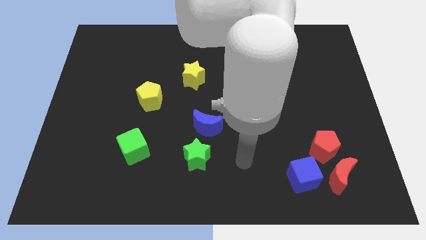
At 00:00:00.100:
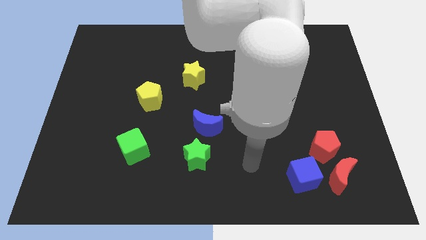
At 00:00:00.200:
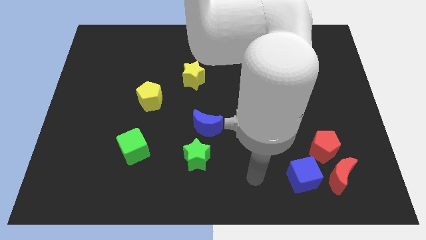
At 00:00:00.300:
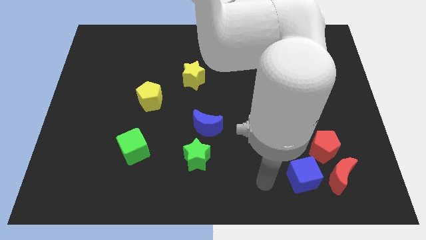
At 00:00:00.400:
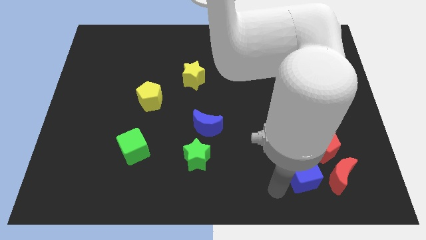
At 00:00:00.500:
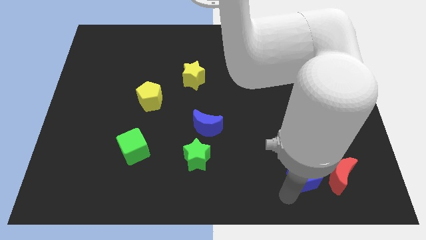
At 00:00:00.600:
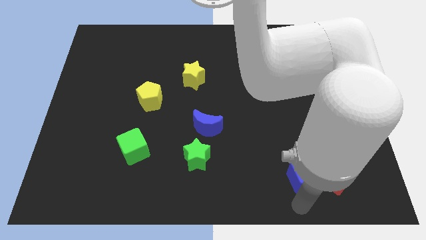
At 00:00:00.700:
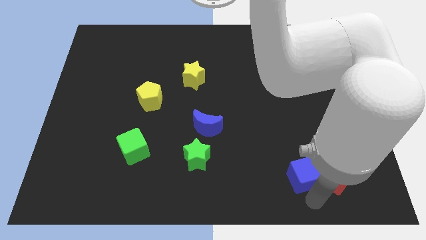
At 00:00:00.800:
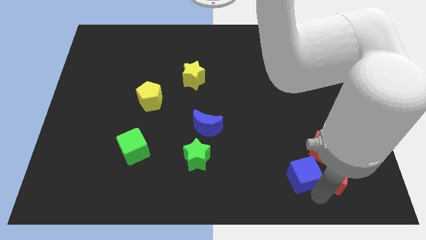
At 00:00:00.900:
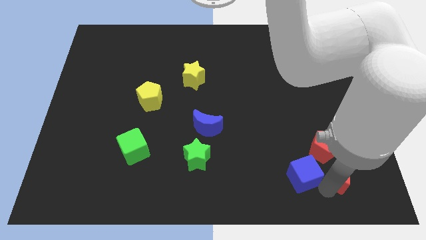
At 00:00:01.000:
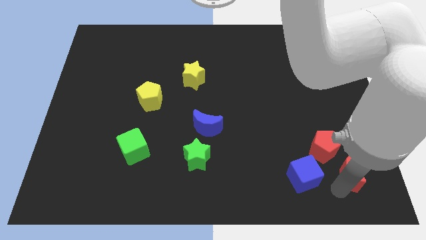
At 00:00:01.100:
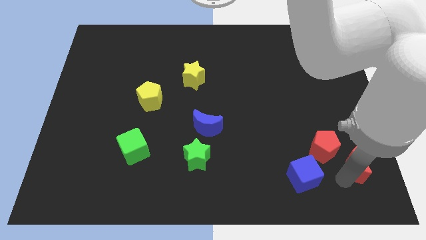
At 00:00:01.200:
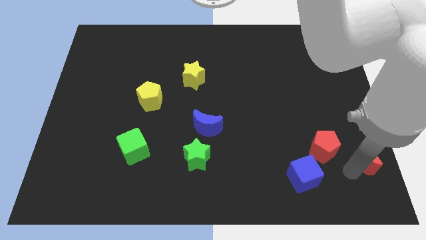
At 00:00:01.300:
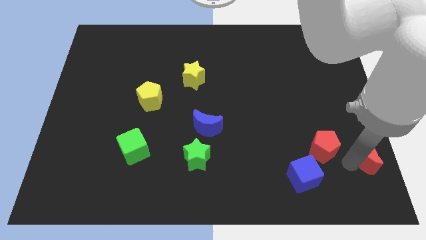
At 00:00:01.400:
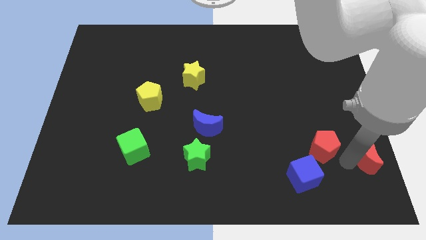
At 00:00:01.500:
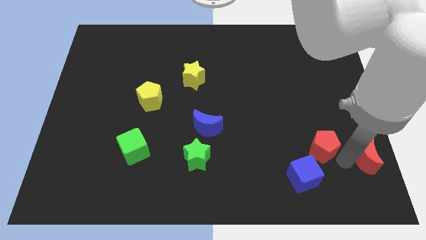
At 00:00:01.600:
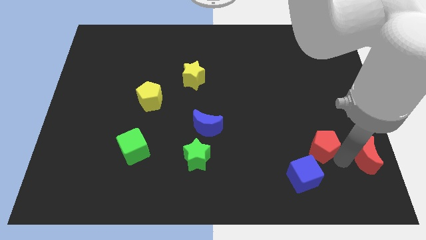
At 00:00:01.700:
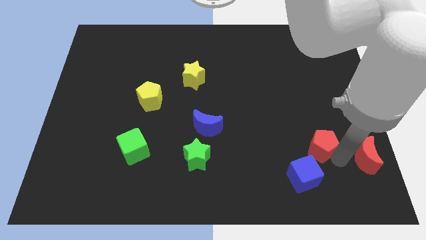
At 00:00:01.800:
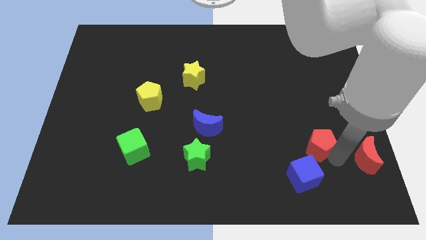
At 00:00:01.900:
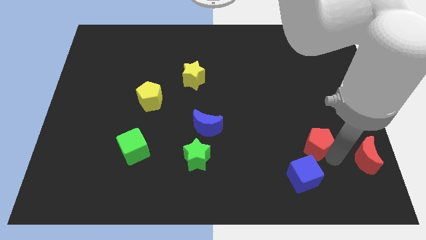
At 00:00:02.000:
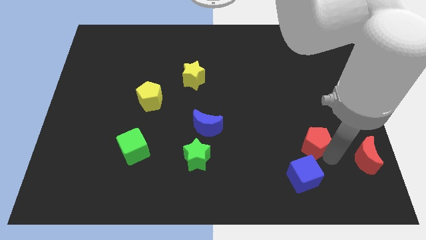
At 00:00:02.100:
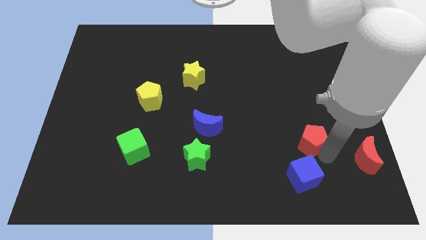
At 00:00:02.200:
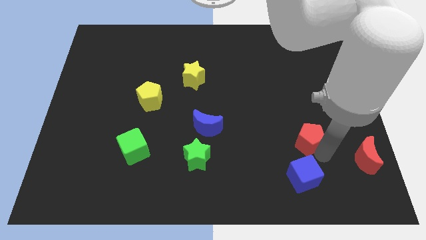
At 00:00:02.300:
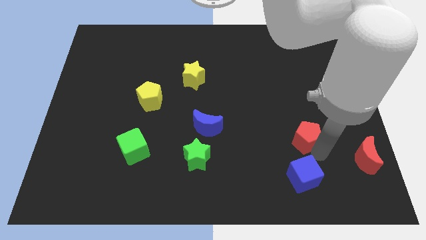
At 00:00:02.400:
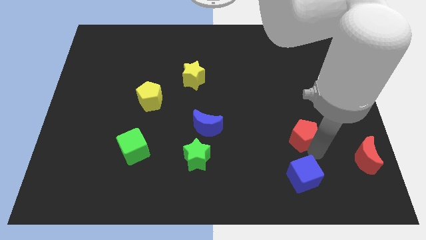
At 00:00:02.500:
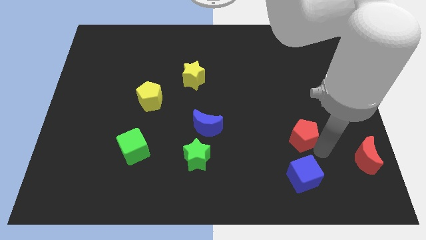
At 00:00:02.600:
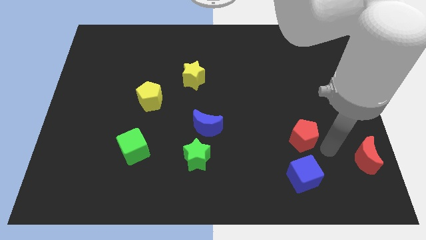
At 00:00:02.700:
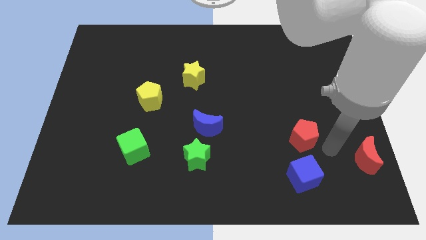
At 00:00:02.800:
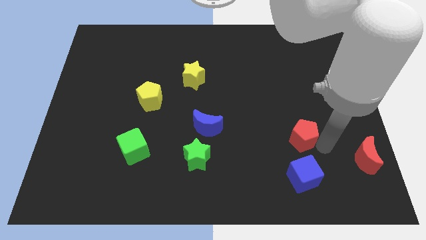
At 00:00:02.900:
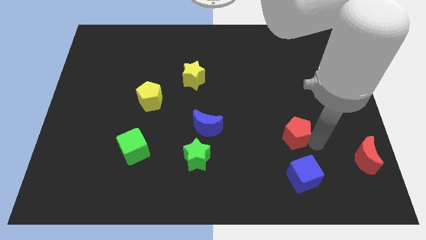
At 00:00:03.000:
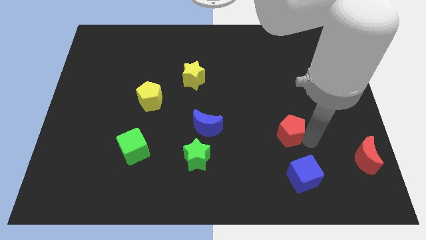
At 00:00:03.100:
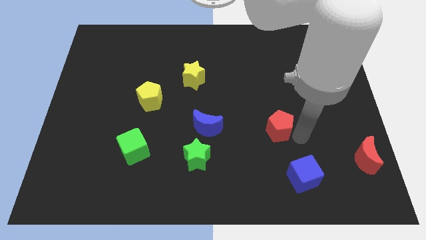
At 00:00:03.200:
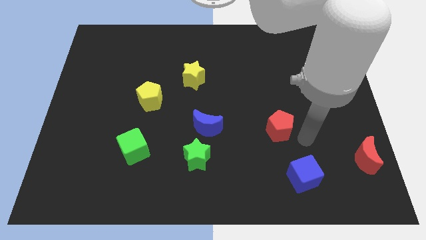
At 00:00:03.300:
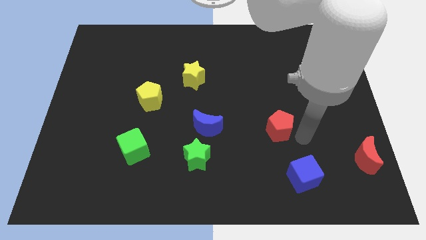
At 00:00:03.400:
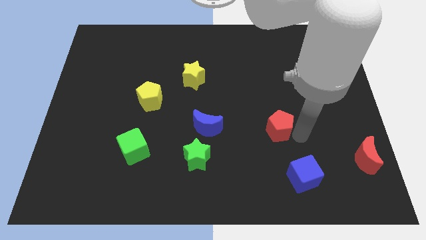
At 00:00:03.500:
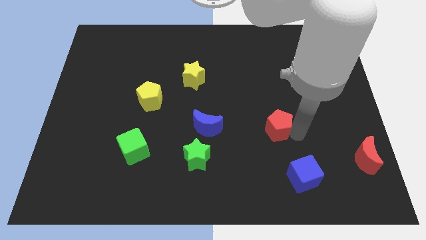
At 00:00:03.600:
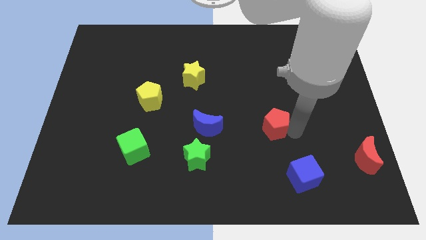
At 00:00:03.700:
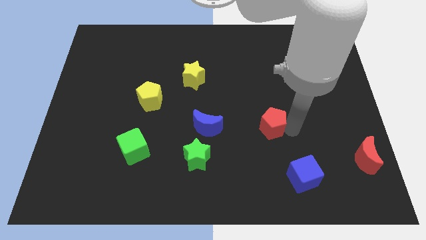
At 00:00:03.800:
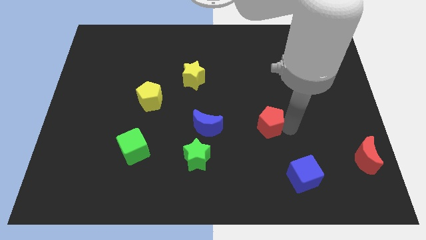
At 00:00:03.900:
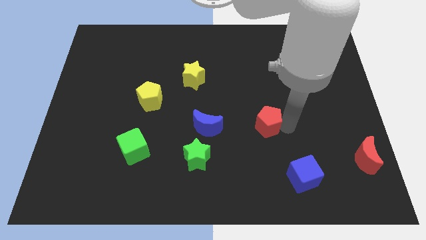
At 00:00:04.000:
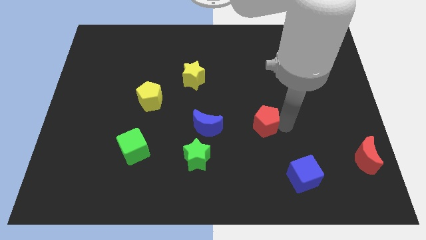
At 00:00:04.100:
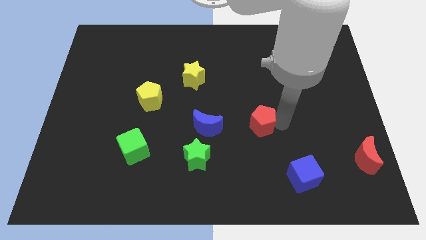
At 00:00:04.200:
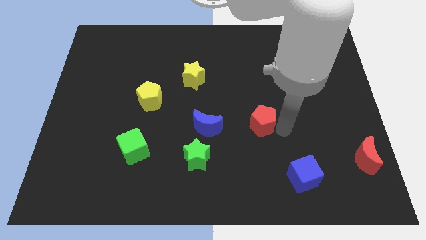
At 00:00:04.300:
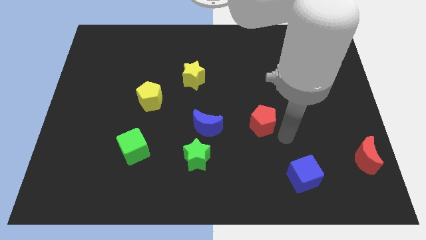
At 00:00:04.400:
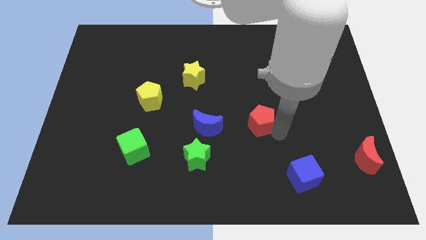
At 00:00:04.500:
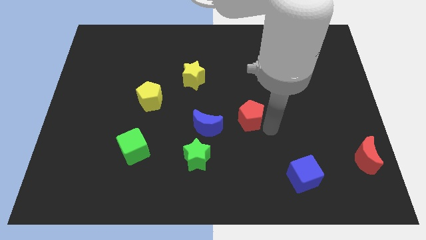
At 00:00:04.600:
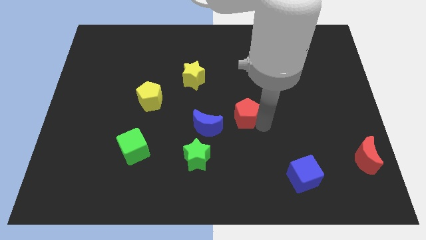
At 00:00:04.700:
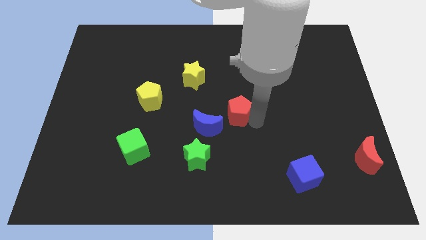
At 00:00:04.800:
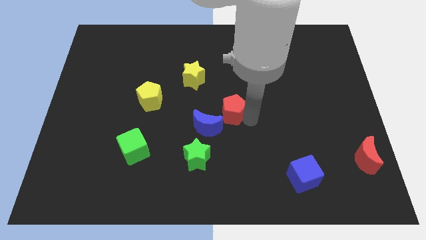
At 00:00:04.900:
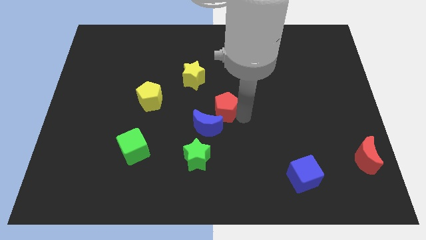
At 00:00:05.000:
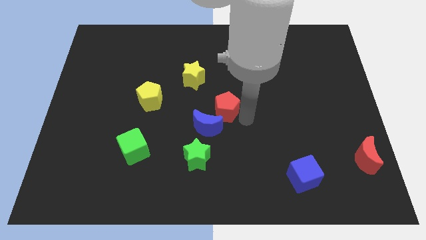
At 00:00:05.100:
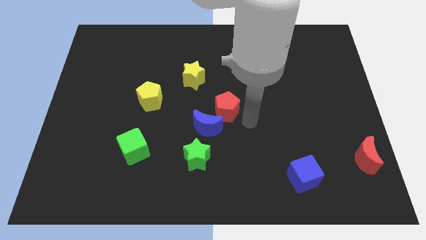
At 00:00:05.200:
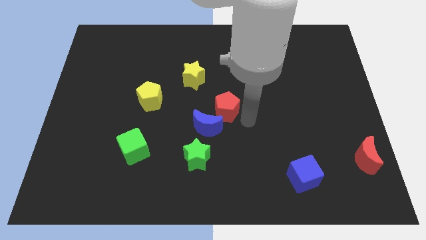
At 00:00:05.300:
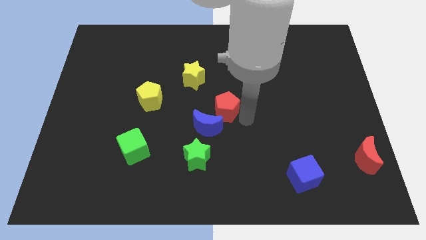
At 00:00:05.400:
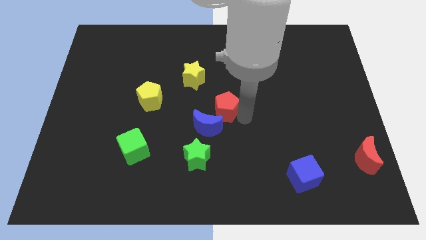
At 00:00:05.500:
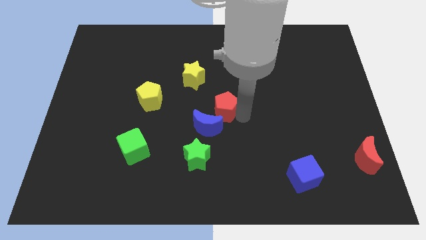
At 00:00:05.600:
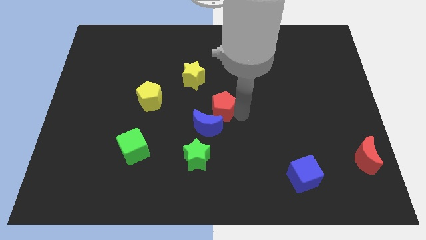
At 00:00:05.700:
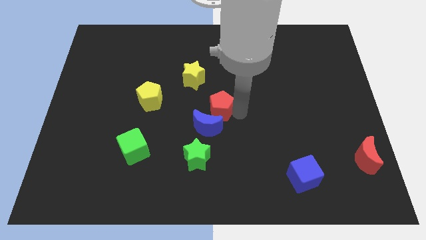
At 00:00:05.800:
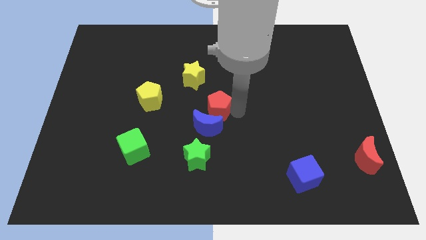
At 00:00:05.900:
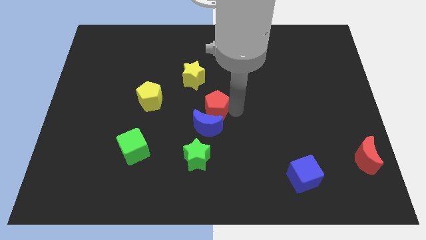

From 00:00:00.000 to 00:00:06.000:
put the red pentagon just right of the yellow pentagon
